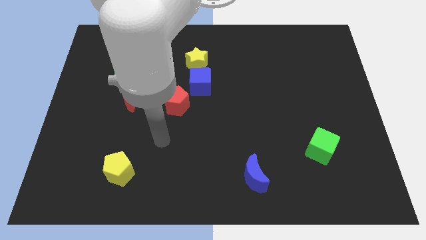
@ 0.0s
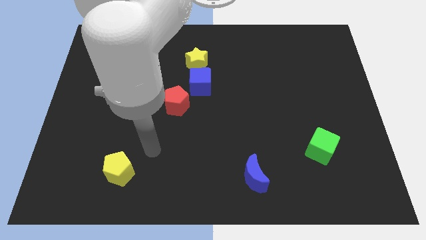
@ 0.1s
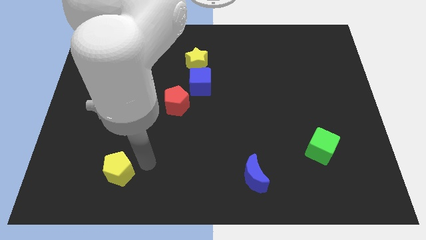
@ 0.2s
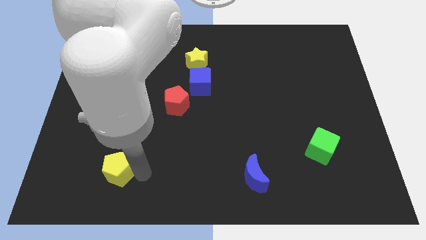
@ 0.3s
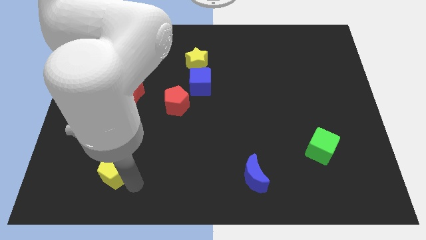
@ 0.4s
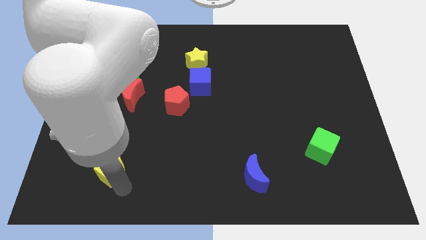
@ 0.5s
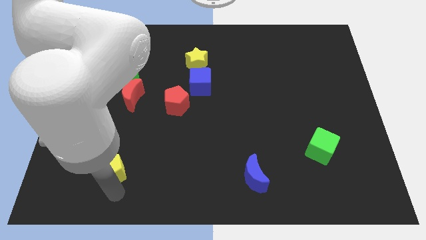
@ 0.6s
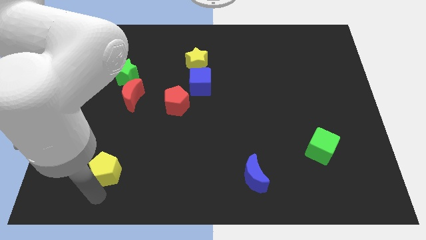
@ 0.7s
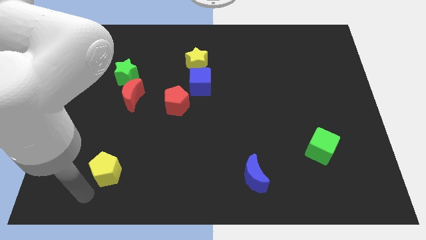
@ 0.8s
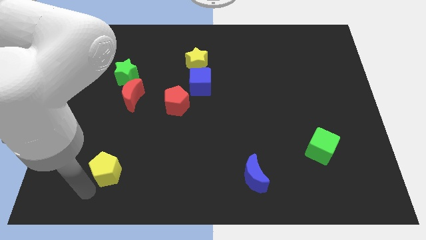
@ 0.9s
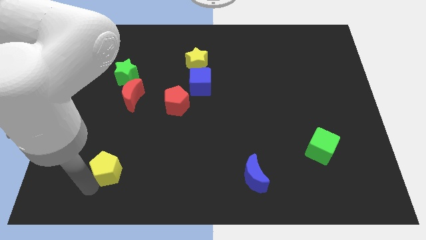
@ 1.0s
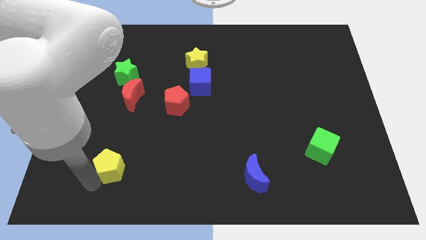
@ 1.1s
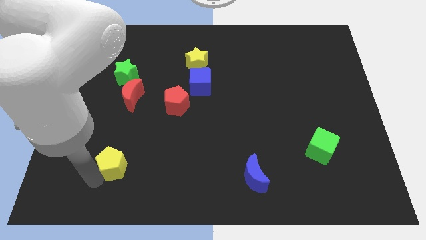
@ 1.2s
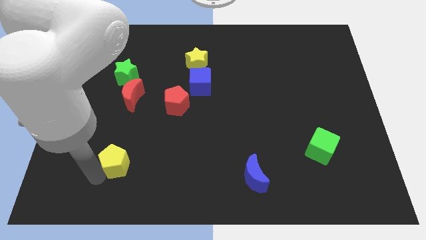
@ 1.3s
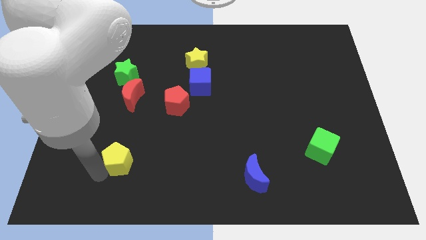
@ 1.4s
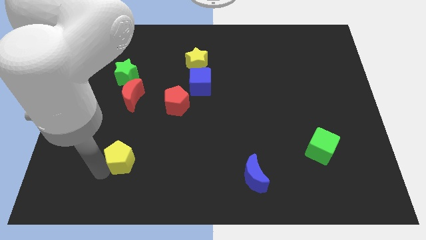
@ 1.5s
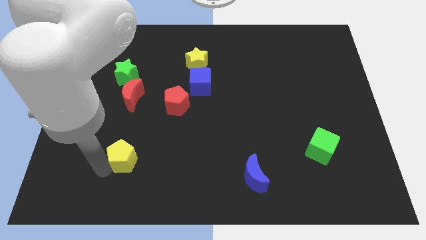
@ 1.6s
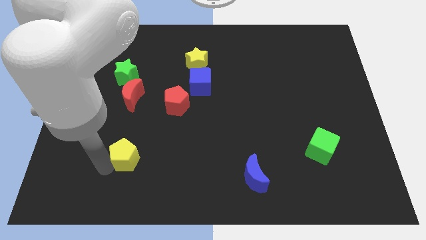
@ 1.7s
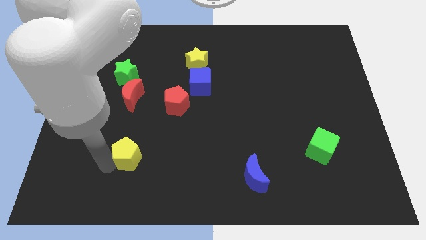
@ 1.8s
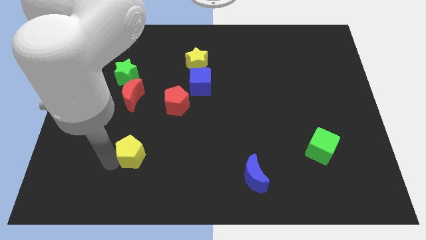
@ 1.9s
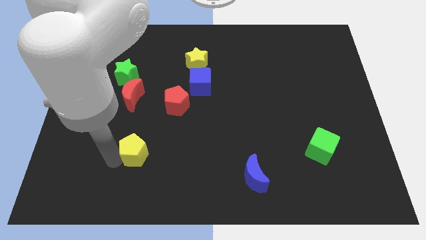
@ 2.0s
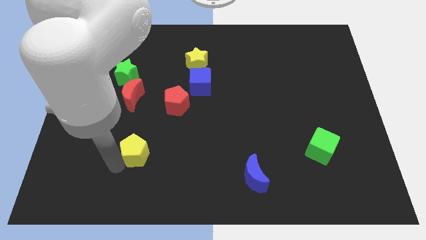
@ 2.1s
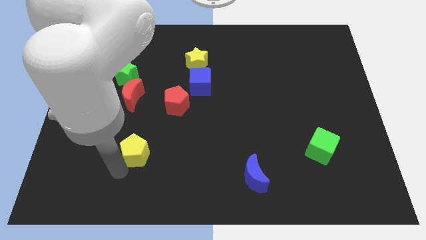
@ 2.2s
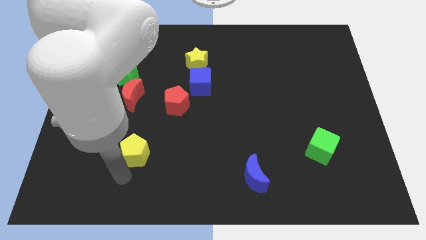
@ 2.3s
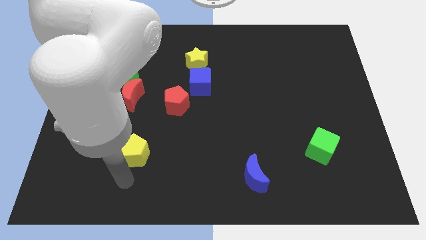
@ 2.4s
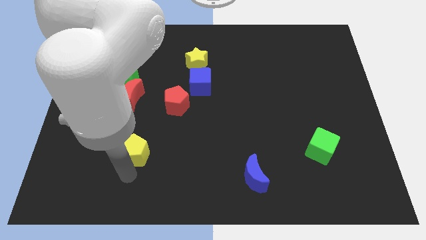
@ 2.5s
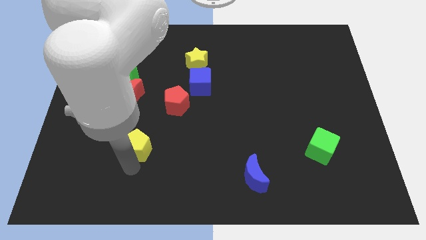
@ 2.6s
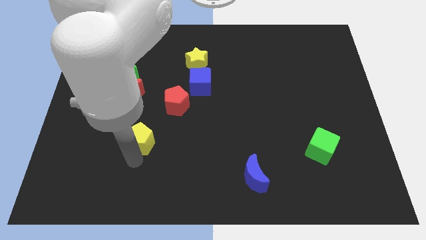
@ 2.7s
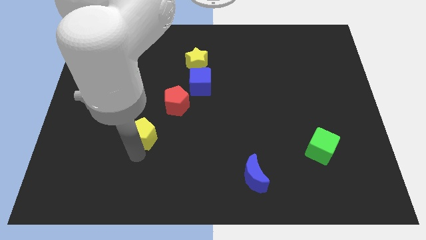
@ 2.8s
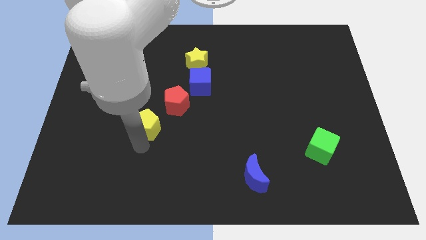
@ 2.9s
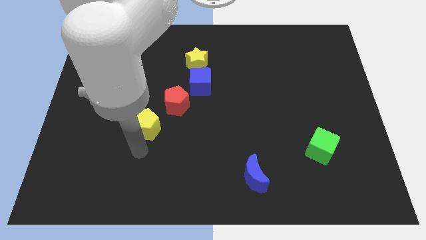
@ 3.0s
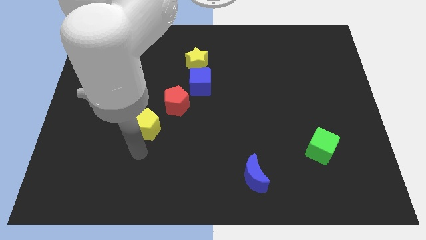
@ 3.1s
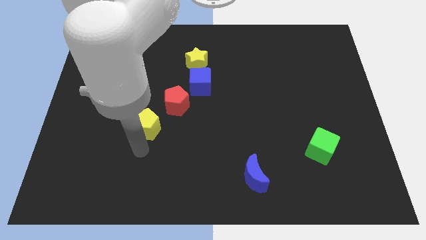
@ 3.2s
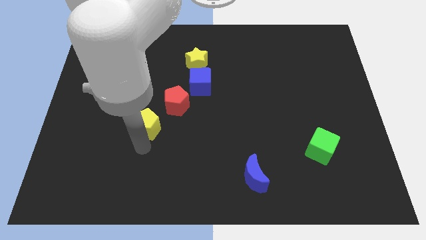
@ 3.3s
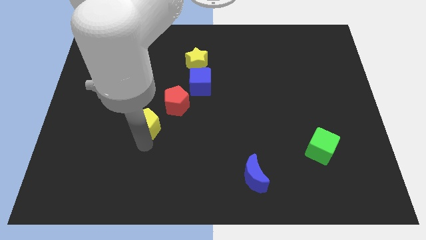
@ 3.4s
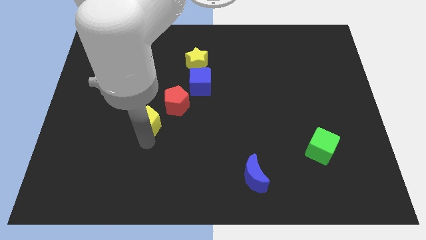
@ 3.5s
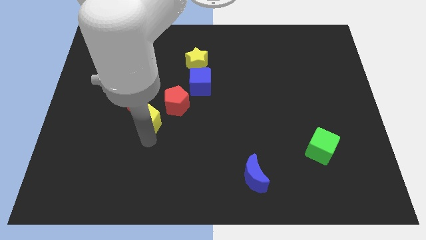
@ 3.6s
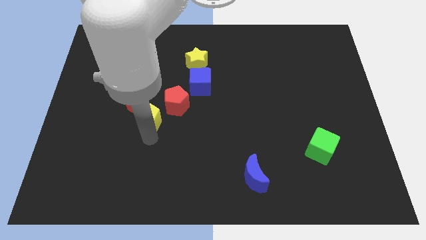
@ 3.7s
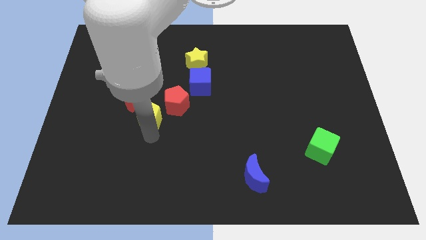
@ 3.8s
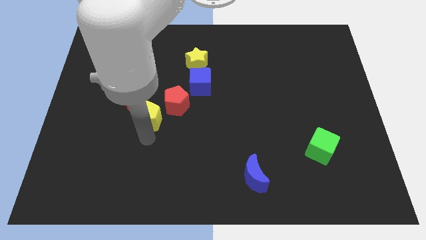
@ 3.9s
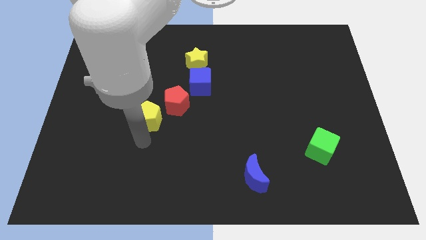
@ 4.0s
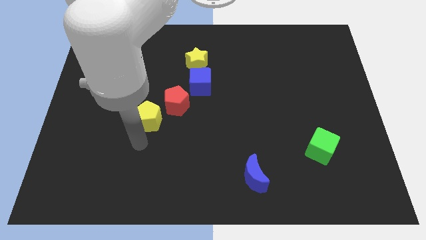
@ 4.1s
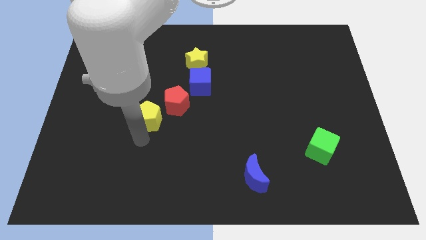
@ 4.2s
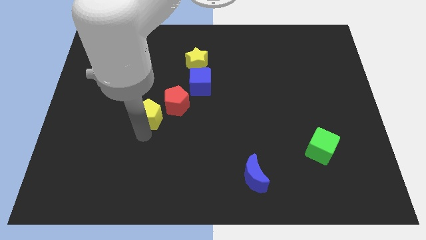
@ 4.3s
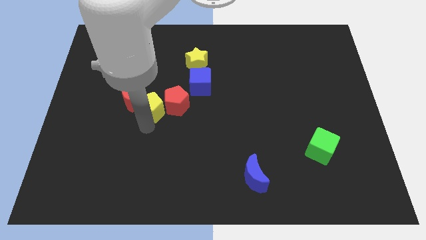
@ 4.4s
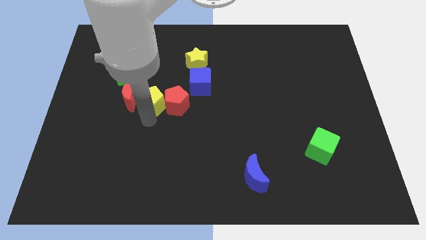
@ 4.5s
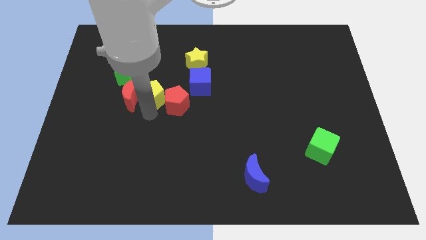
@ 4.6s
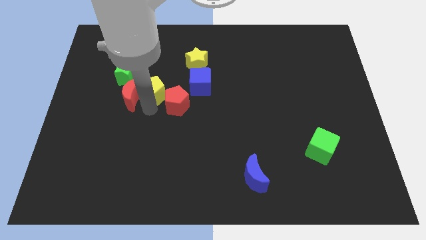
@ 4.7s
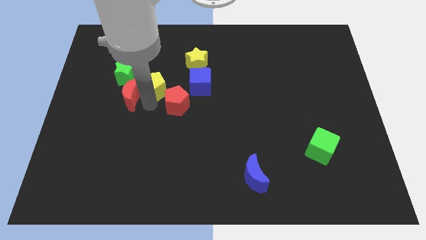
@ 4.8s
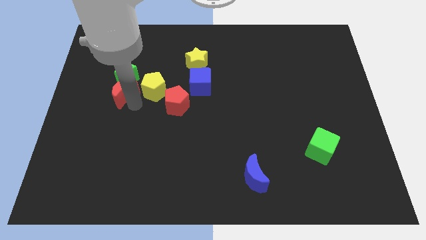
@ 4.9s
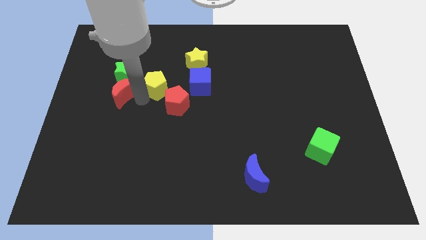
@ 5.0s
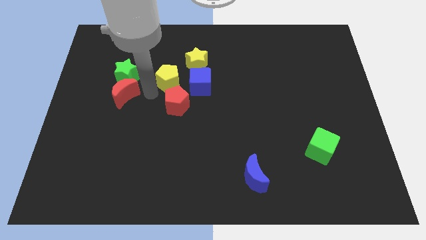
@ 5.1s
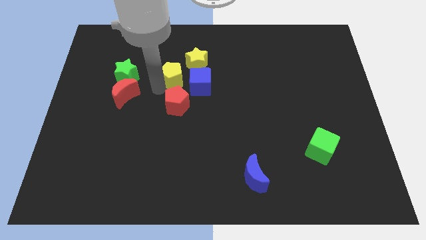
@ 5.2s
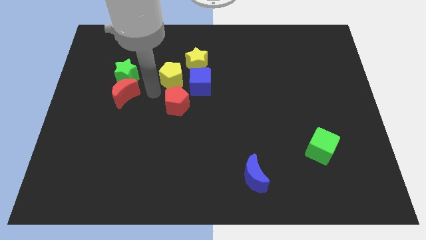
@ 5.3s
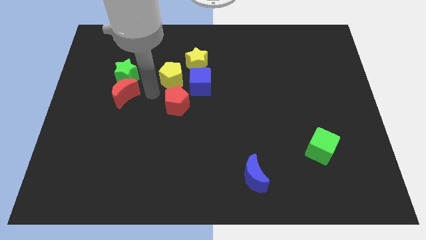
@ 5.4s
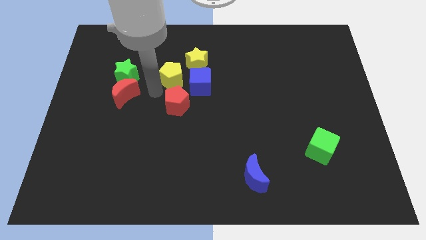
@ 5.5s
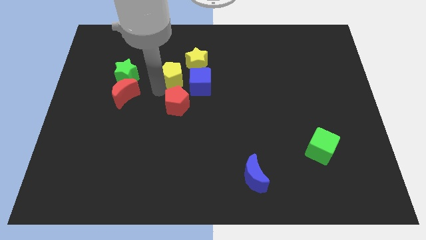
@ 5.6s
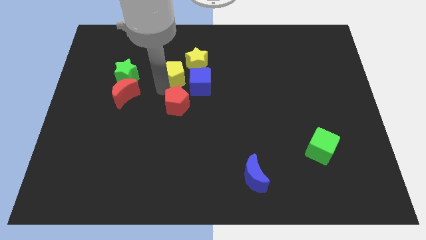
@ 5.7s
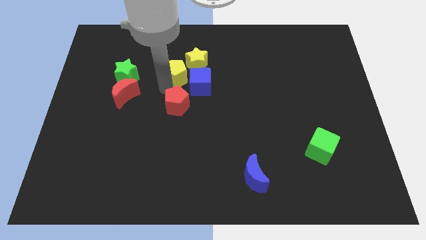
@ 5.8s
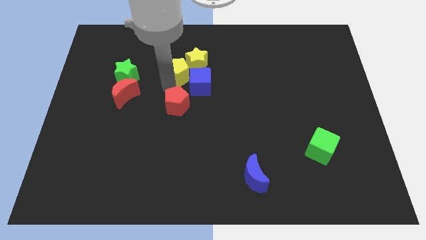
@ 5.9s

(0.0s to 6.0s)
push the yellow pentagon towards the yellow star

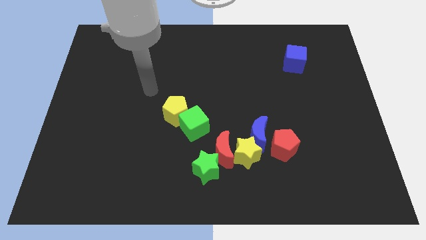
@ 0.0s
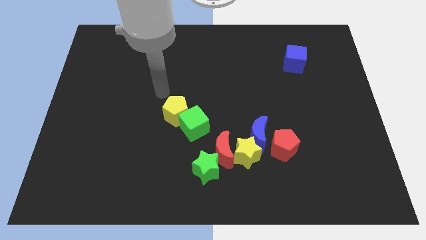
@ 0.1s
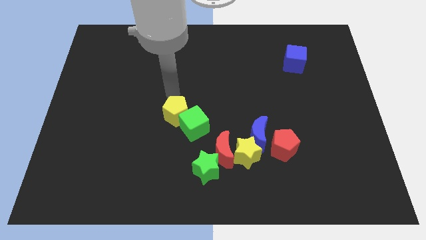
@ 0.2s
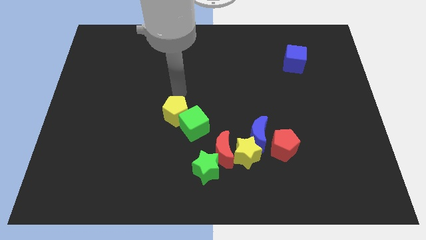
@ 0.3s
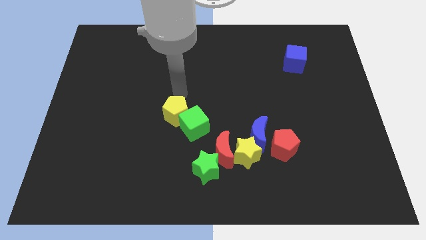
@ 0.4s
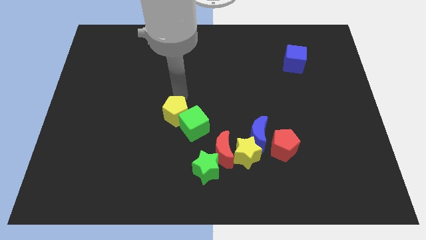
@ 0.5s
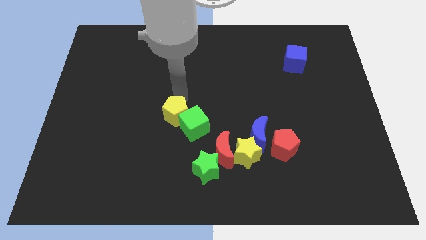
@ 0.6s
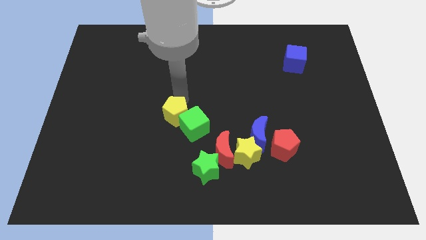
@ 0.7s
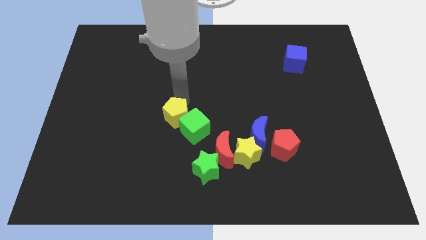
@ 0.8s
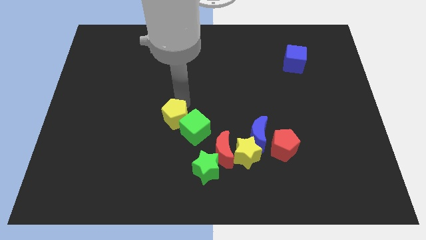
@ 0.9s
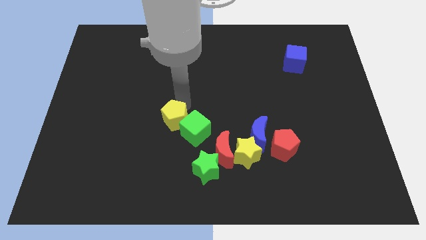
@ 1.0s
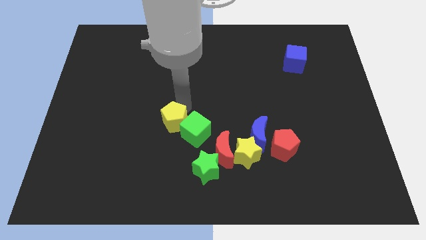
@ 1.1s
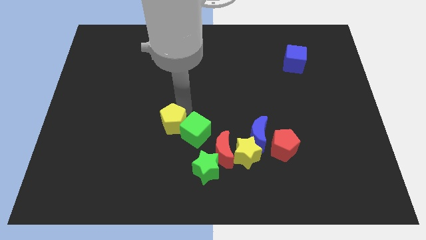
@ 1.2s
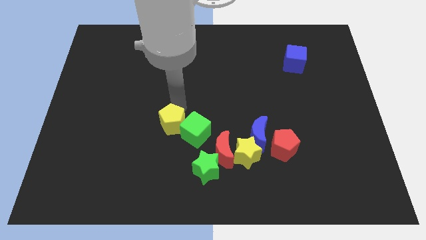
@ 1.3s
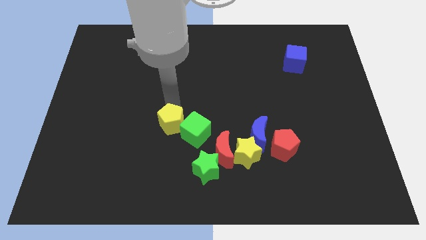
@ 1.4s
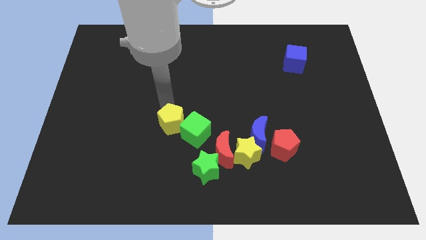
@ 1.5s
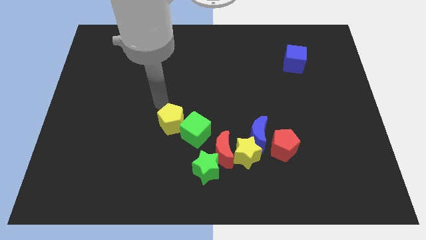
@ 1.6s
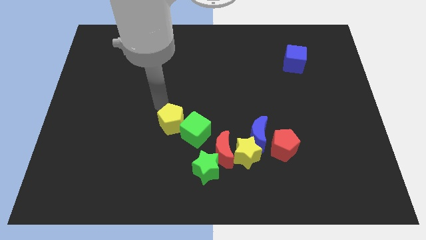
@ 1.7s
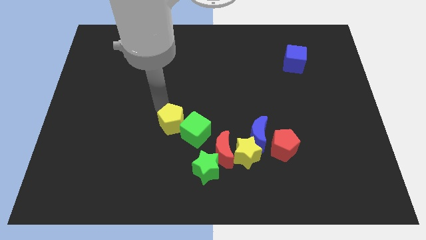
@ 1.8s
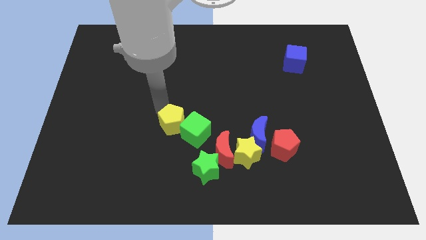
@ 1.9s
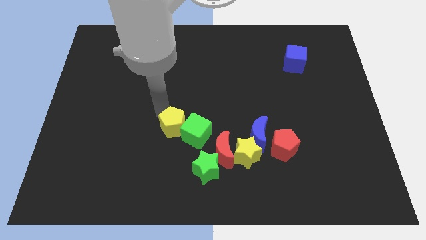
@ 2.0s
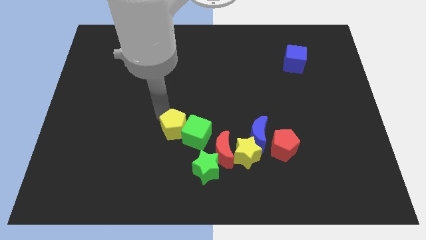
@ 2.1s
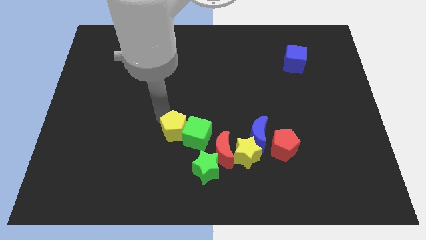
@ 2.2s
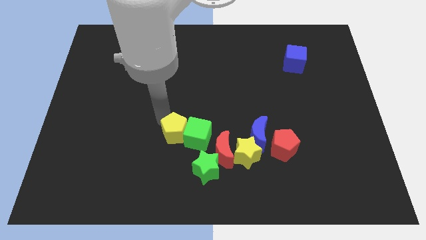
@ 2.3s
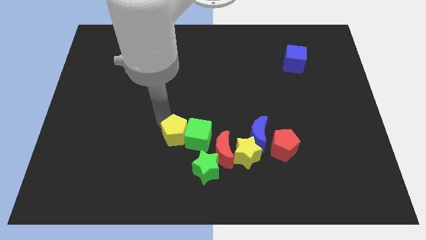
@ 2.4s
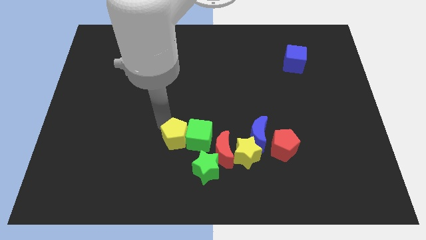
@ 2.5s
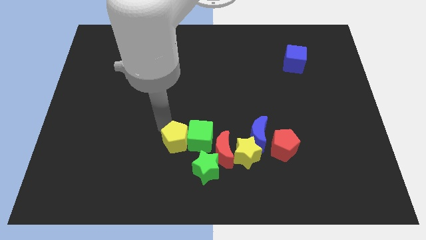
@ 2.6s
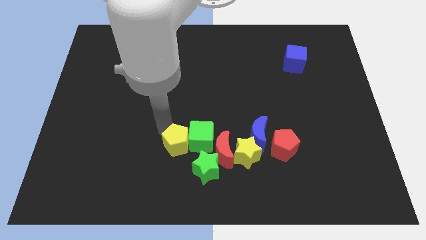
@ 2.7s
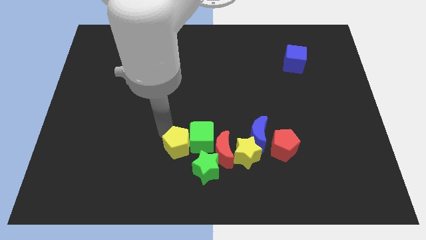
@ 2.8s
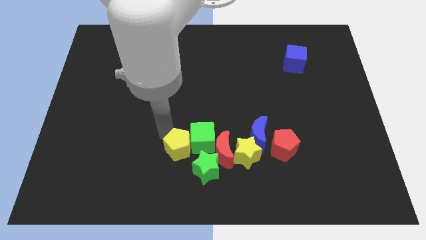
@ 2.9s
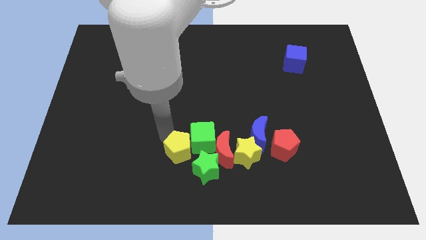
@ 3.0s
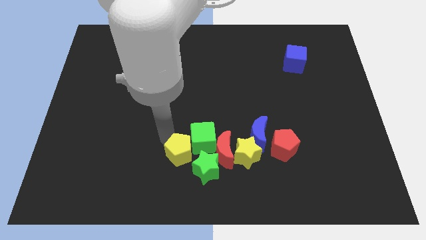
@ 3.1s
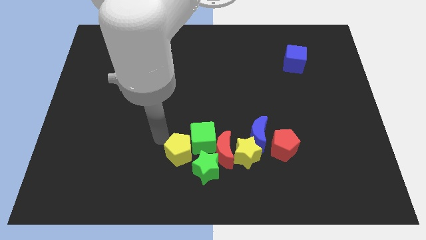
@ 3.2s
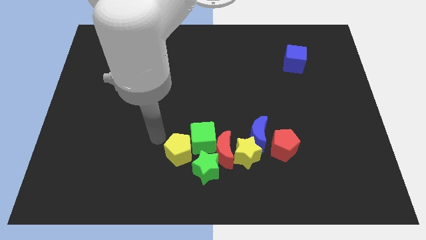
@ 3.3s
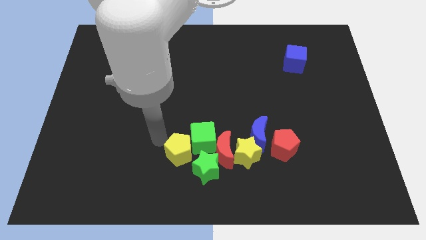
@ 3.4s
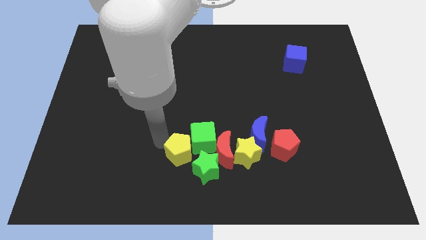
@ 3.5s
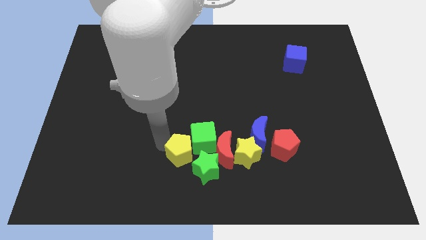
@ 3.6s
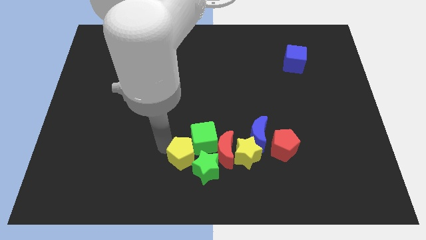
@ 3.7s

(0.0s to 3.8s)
move the yellow pentagon towards the green star
